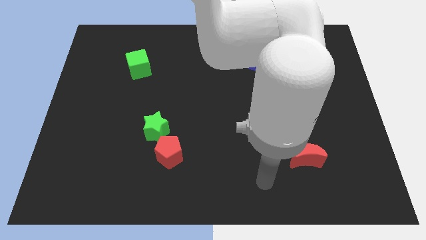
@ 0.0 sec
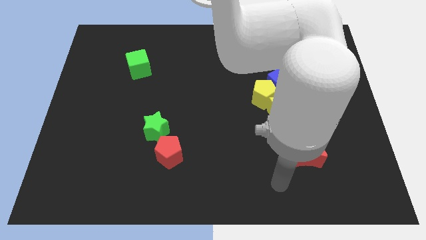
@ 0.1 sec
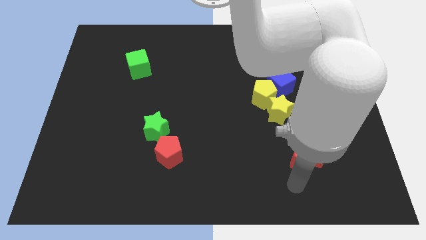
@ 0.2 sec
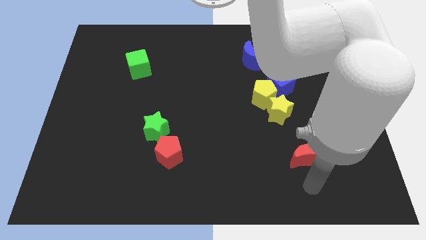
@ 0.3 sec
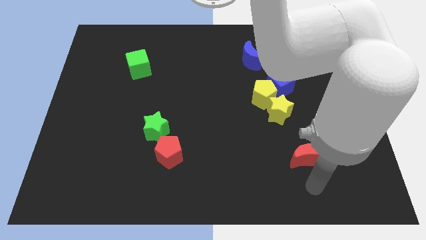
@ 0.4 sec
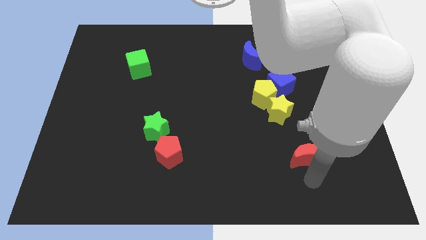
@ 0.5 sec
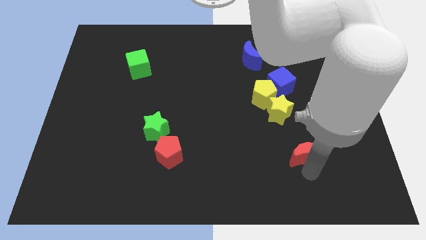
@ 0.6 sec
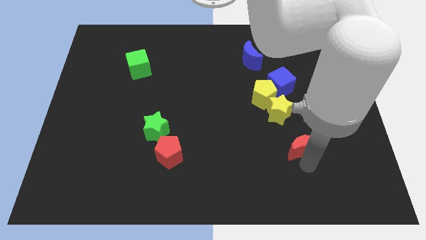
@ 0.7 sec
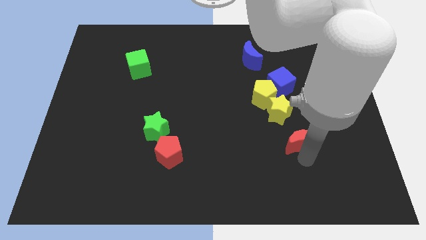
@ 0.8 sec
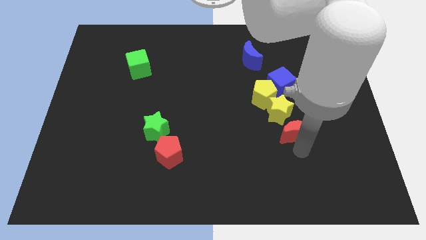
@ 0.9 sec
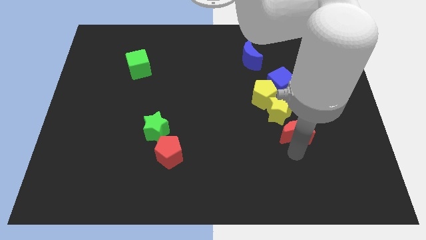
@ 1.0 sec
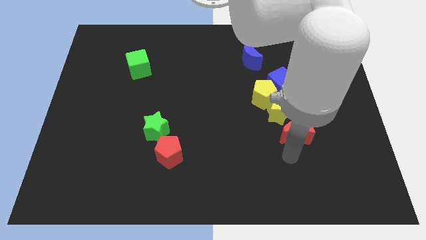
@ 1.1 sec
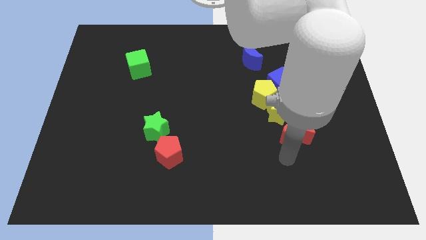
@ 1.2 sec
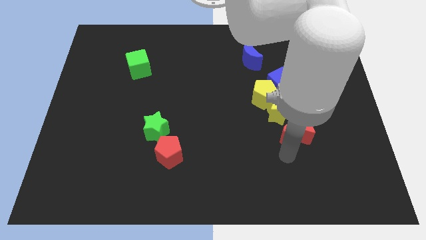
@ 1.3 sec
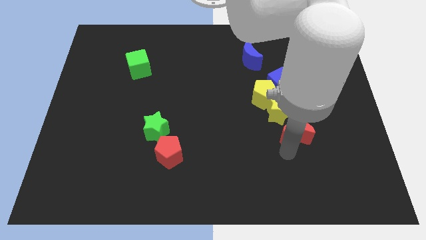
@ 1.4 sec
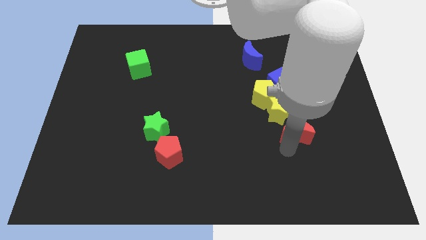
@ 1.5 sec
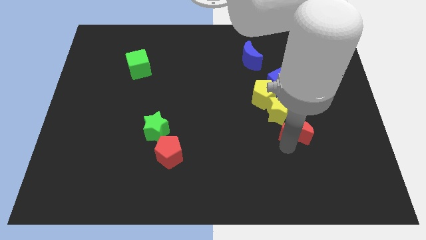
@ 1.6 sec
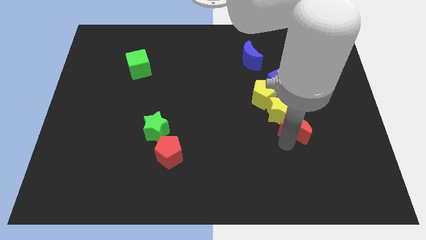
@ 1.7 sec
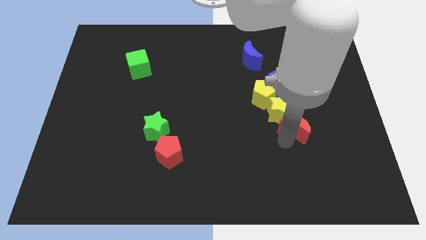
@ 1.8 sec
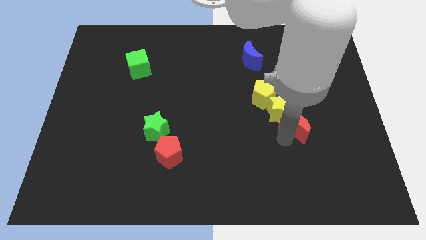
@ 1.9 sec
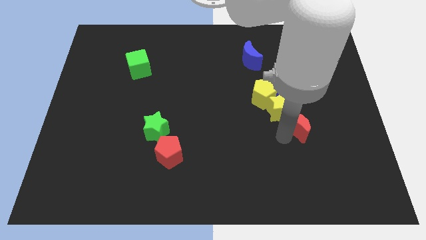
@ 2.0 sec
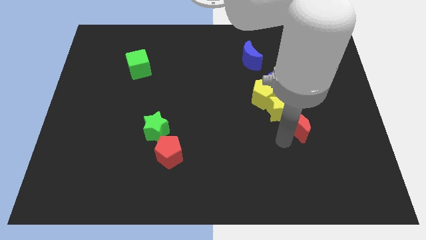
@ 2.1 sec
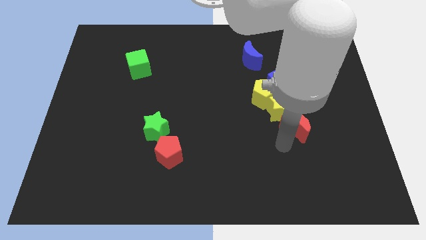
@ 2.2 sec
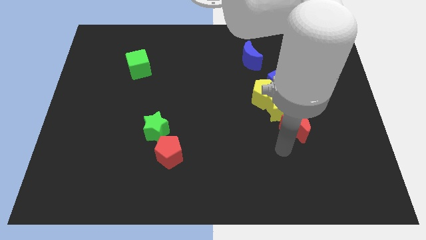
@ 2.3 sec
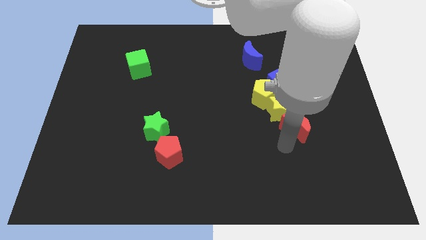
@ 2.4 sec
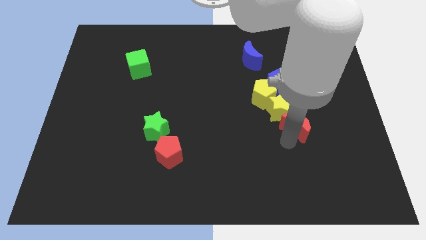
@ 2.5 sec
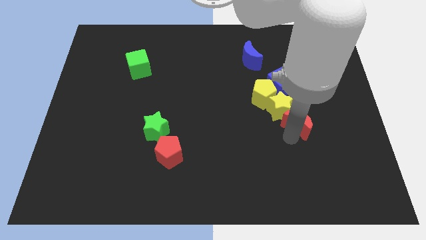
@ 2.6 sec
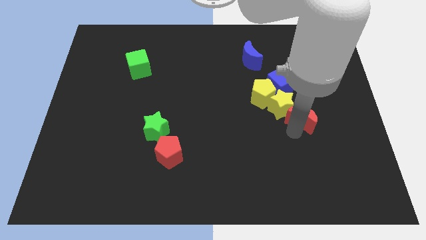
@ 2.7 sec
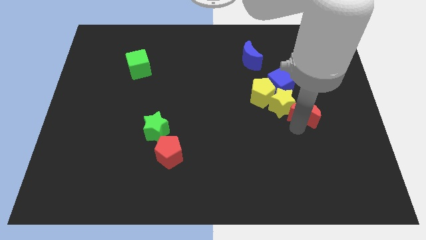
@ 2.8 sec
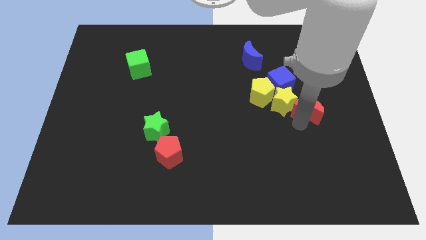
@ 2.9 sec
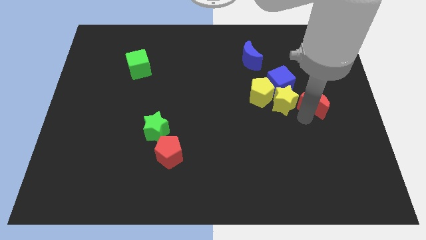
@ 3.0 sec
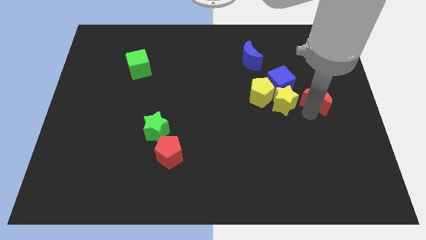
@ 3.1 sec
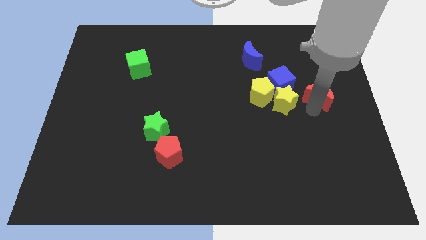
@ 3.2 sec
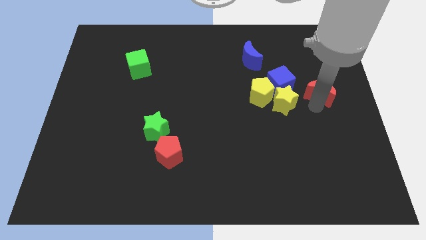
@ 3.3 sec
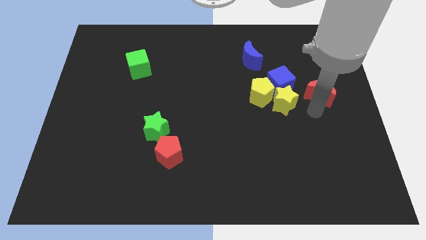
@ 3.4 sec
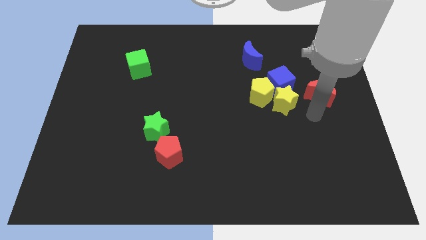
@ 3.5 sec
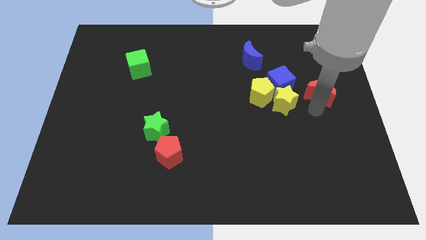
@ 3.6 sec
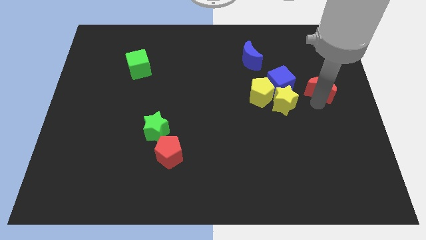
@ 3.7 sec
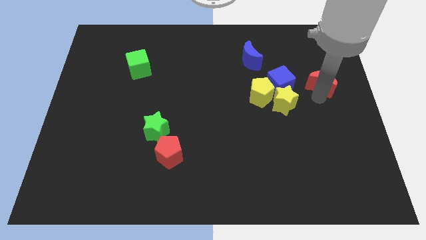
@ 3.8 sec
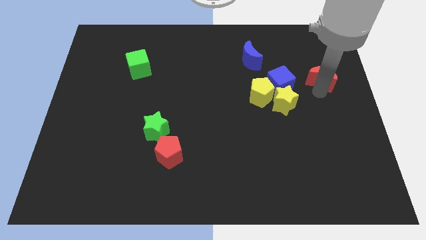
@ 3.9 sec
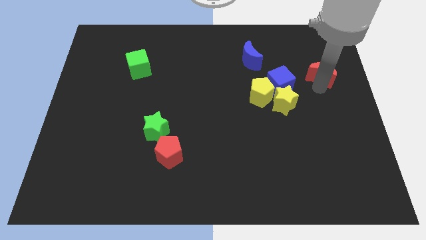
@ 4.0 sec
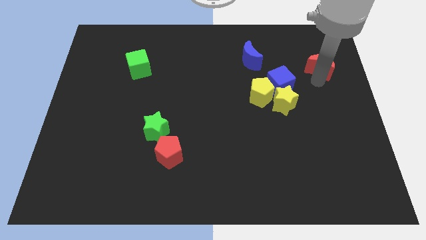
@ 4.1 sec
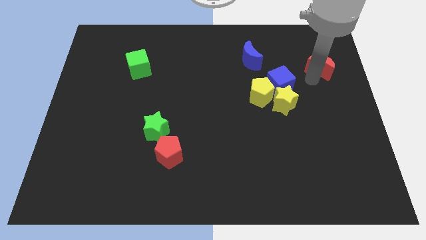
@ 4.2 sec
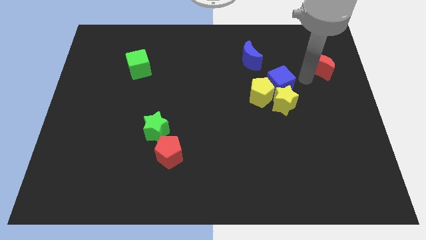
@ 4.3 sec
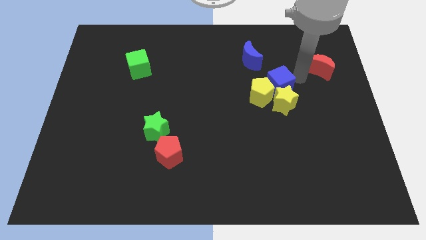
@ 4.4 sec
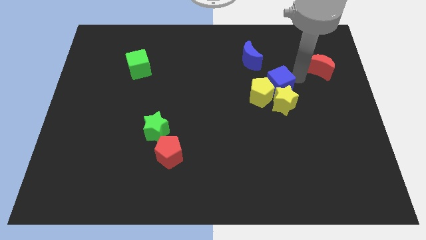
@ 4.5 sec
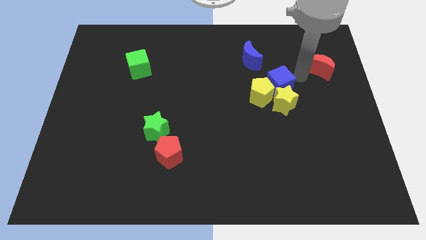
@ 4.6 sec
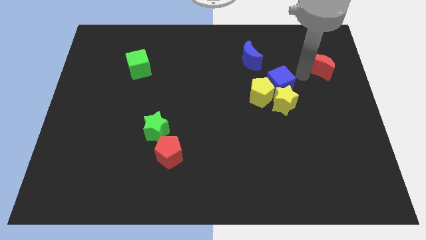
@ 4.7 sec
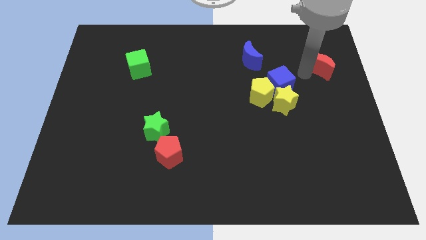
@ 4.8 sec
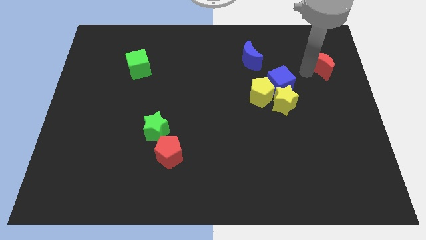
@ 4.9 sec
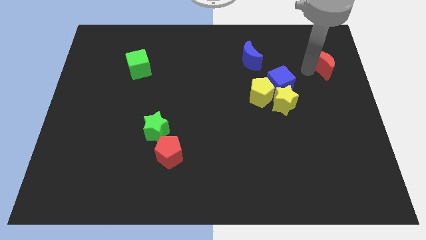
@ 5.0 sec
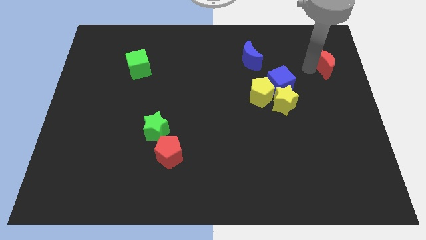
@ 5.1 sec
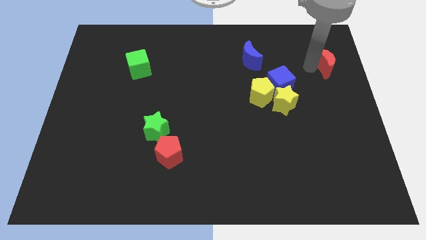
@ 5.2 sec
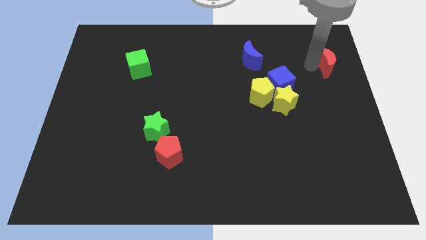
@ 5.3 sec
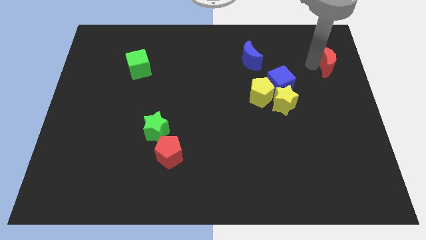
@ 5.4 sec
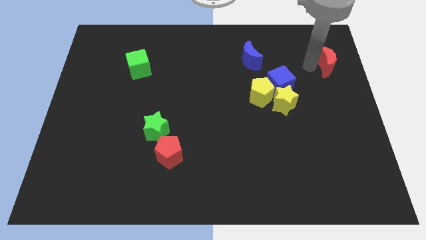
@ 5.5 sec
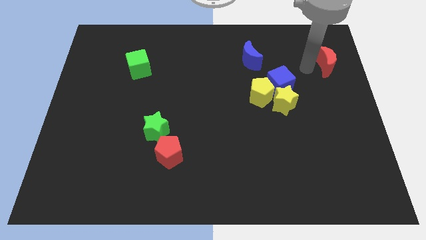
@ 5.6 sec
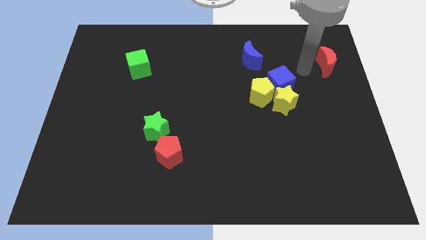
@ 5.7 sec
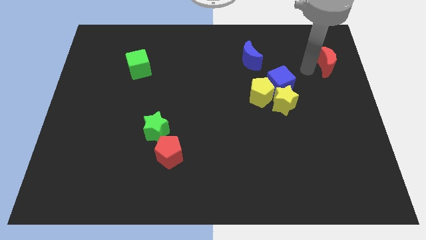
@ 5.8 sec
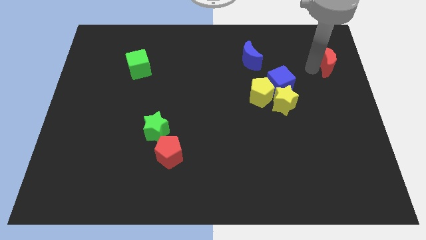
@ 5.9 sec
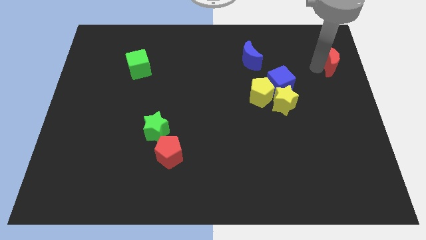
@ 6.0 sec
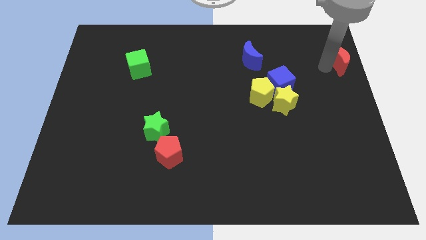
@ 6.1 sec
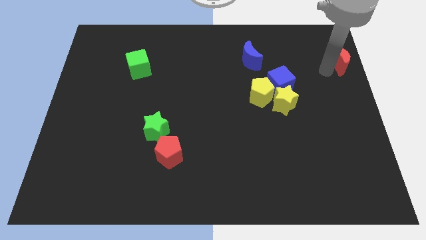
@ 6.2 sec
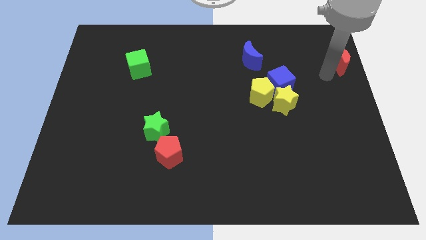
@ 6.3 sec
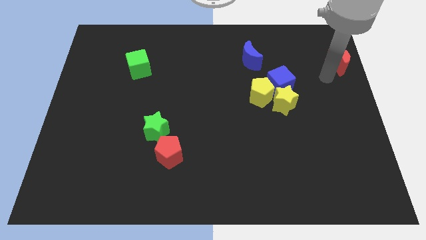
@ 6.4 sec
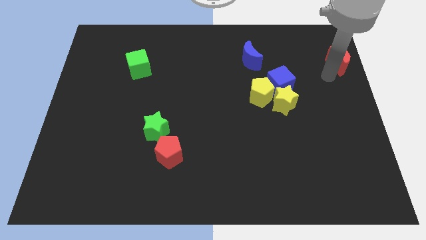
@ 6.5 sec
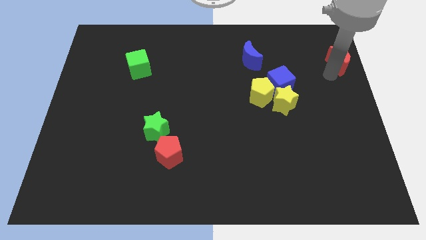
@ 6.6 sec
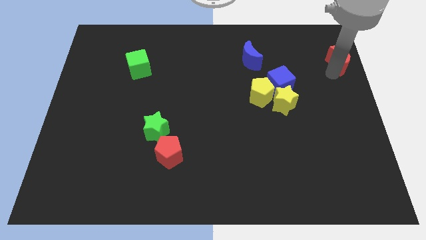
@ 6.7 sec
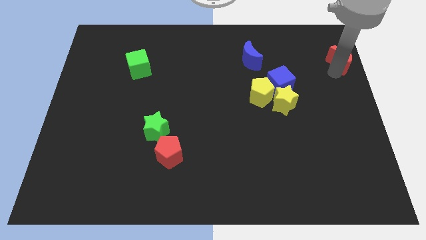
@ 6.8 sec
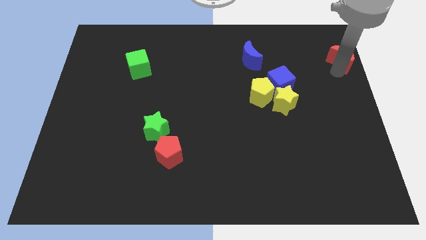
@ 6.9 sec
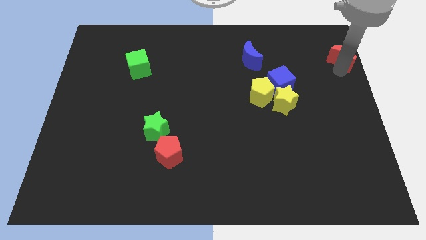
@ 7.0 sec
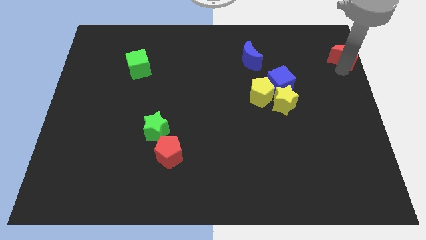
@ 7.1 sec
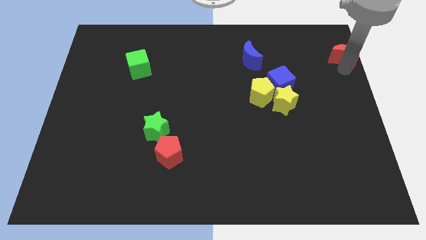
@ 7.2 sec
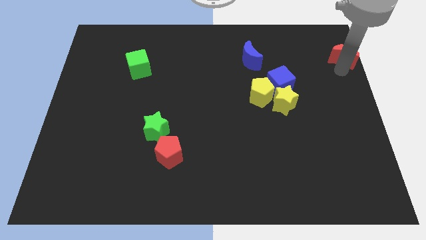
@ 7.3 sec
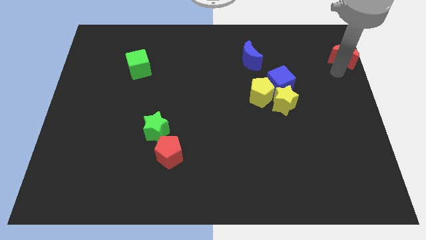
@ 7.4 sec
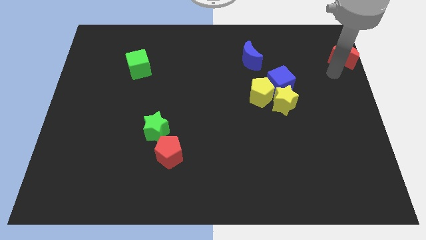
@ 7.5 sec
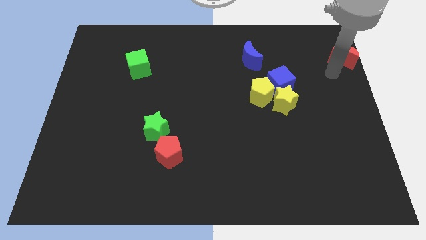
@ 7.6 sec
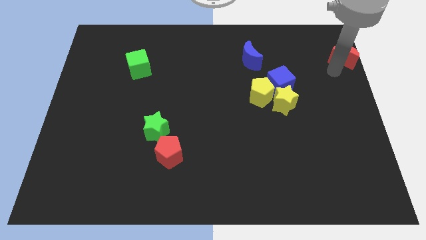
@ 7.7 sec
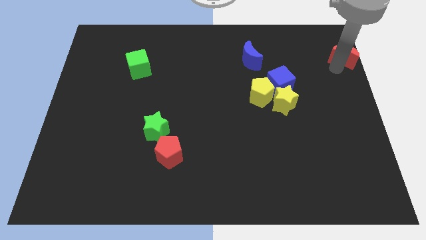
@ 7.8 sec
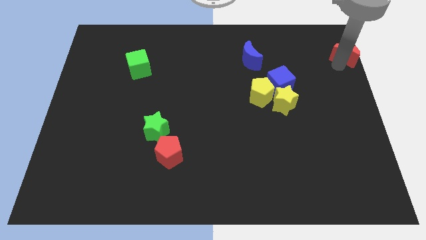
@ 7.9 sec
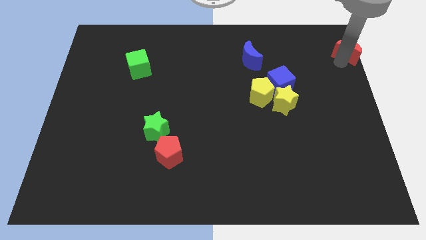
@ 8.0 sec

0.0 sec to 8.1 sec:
push the red moon to the top right corner
